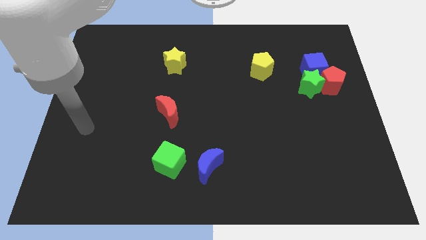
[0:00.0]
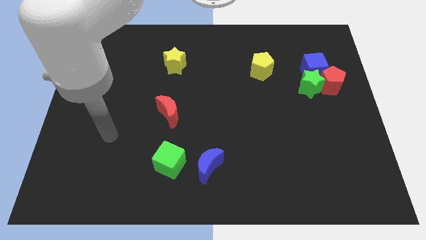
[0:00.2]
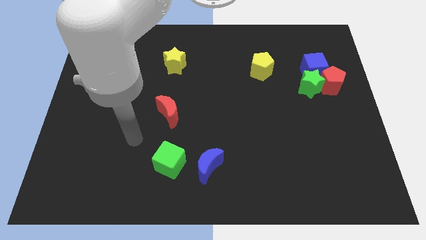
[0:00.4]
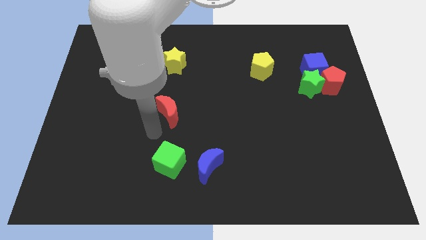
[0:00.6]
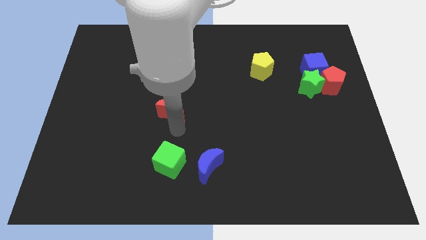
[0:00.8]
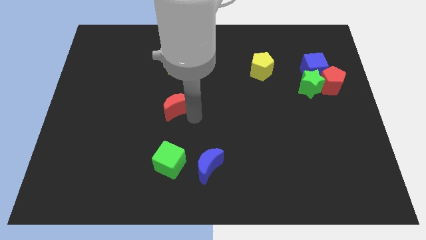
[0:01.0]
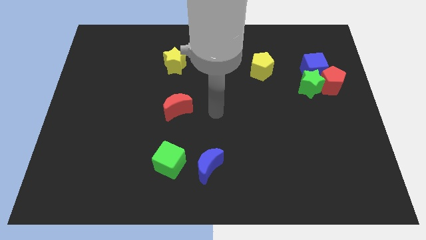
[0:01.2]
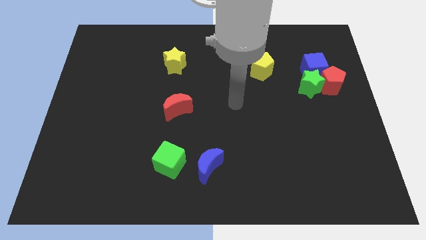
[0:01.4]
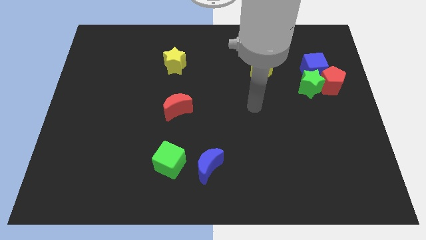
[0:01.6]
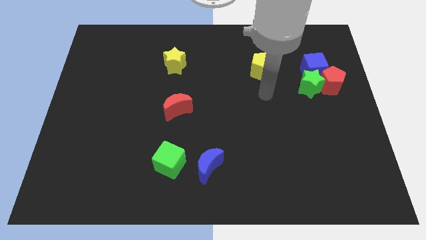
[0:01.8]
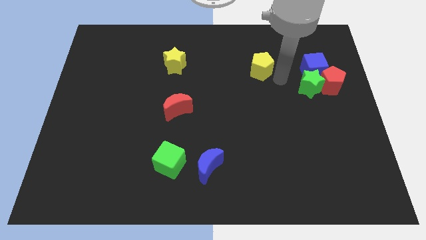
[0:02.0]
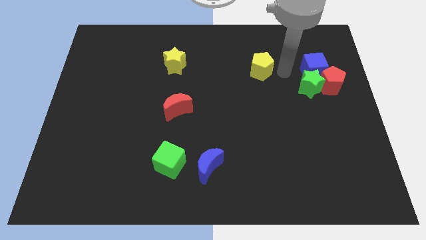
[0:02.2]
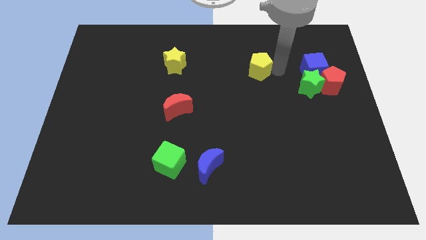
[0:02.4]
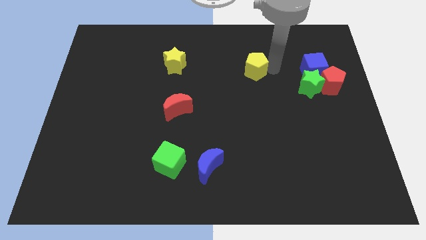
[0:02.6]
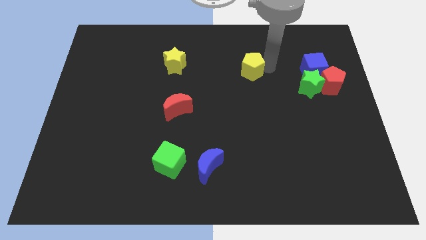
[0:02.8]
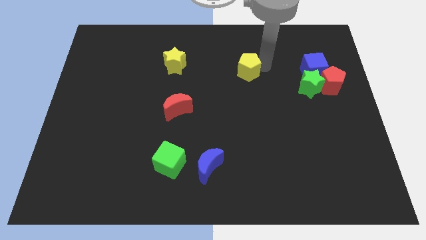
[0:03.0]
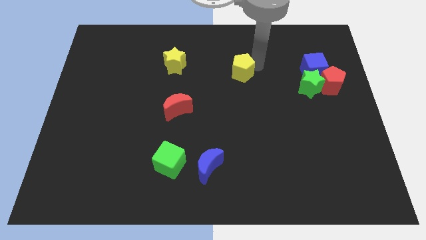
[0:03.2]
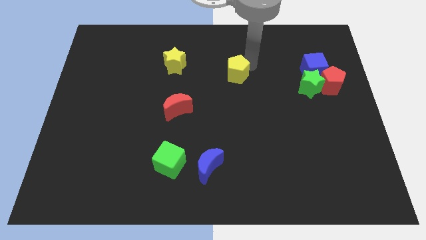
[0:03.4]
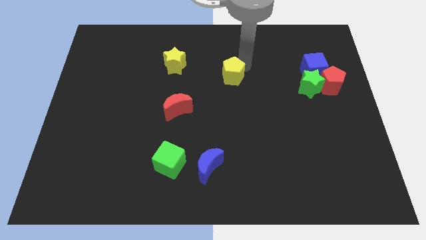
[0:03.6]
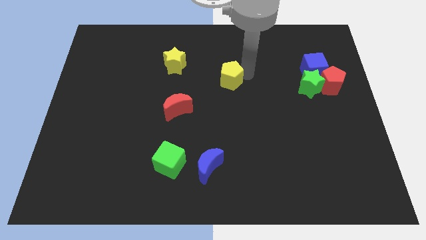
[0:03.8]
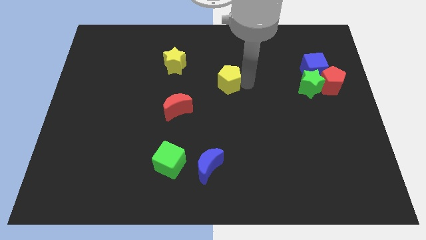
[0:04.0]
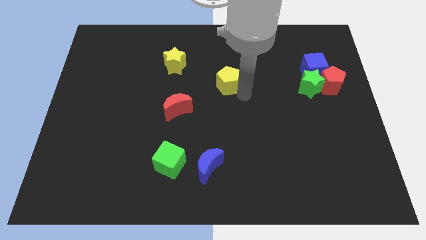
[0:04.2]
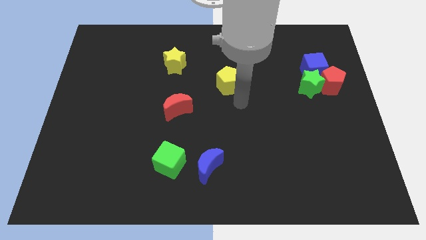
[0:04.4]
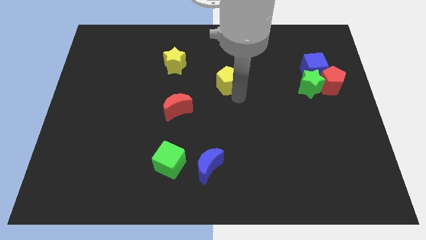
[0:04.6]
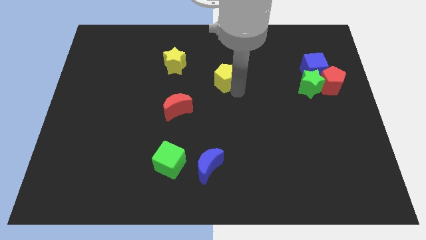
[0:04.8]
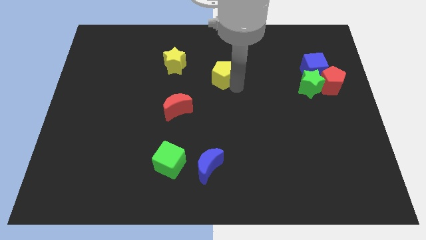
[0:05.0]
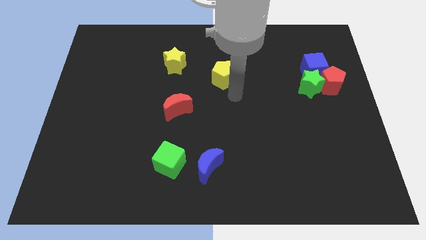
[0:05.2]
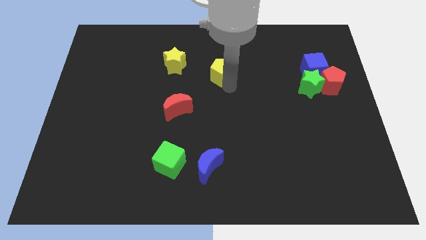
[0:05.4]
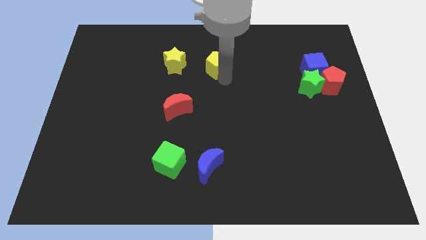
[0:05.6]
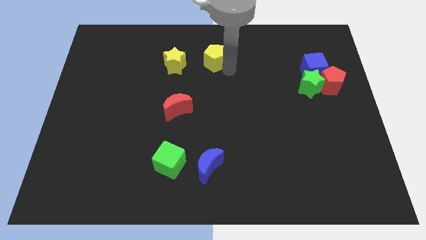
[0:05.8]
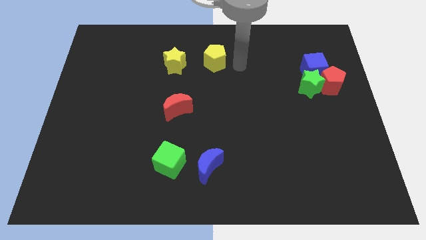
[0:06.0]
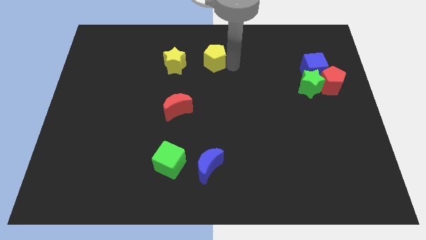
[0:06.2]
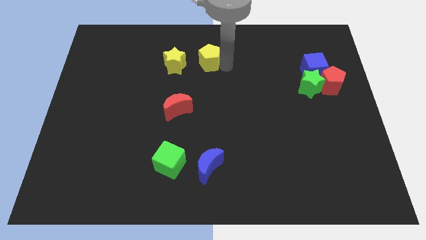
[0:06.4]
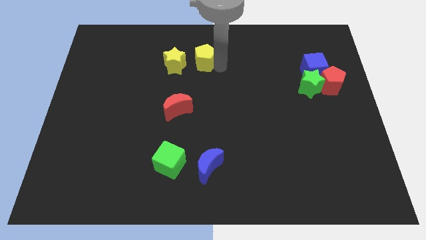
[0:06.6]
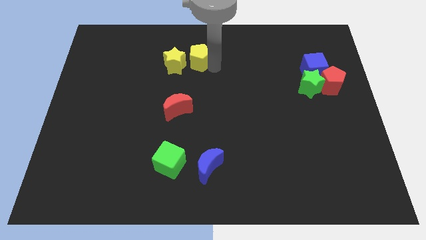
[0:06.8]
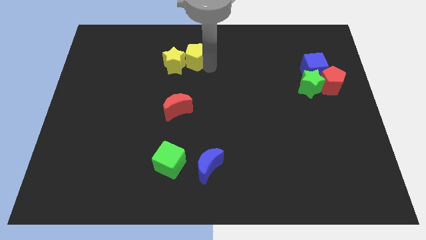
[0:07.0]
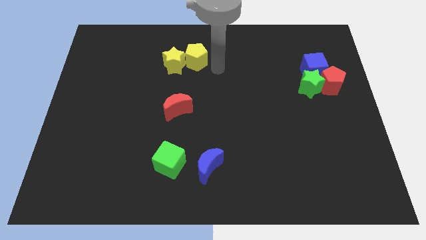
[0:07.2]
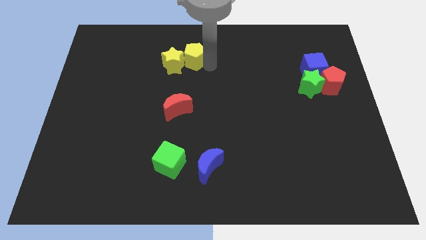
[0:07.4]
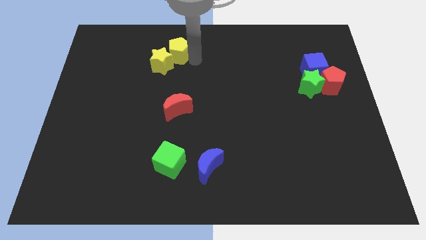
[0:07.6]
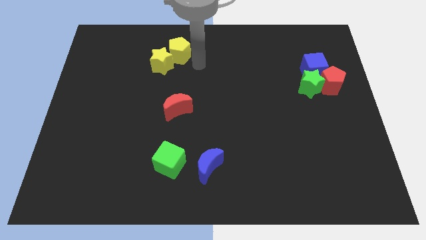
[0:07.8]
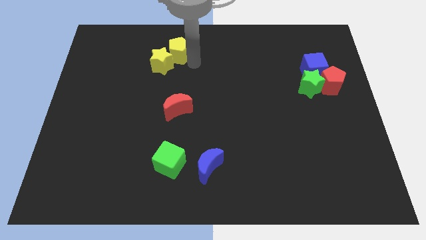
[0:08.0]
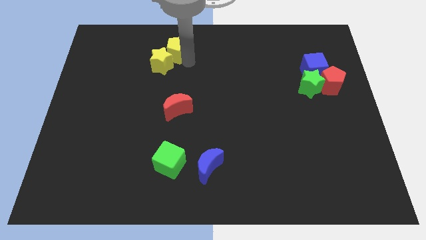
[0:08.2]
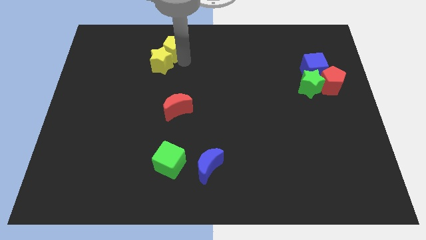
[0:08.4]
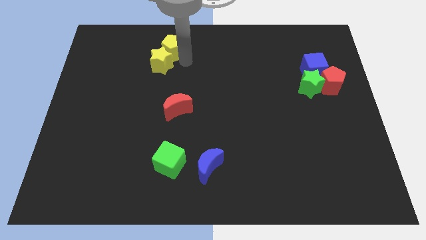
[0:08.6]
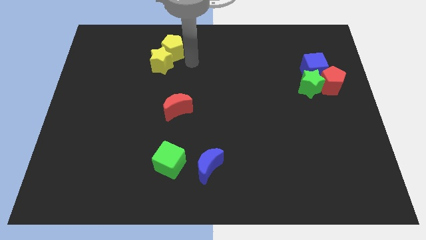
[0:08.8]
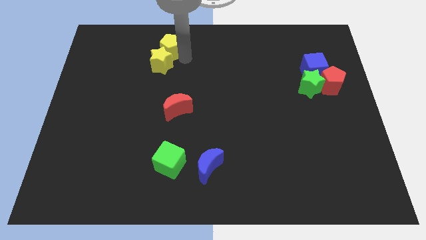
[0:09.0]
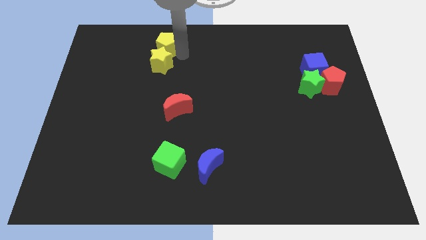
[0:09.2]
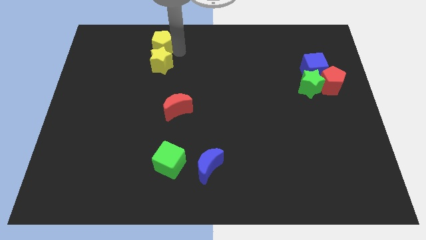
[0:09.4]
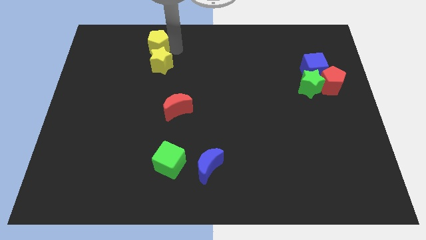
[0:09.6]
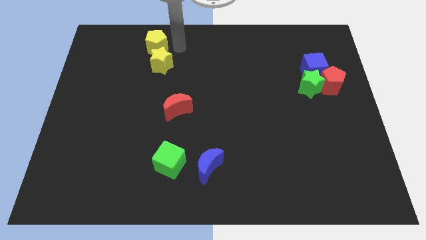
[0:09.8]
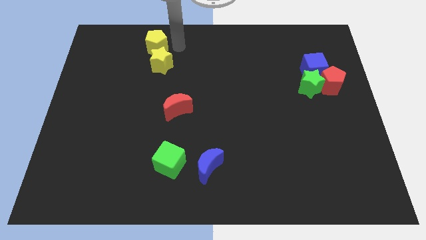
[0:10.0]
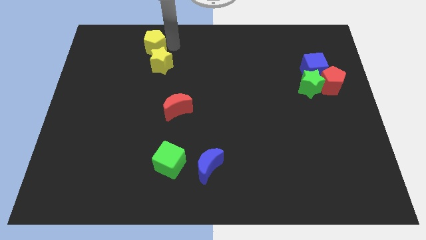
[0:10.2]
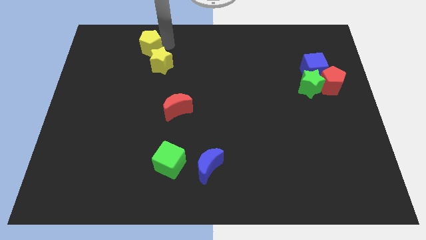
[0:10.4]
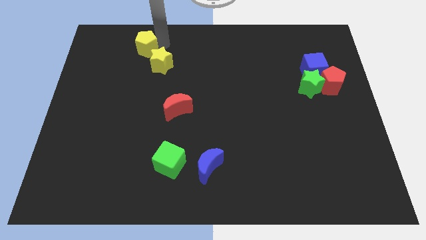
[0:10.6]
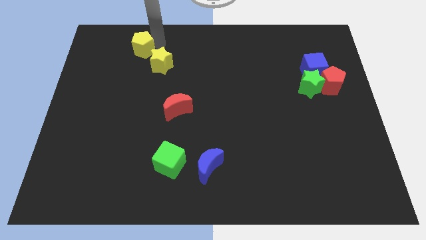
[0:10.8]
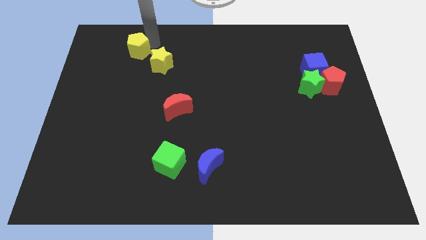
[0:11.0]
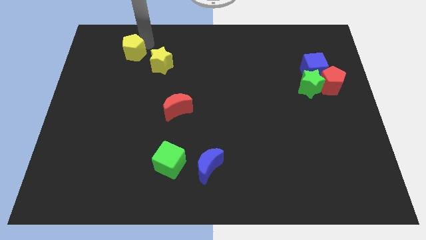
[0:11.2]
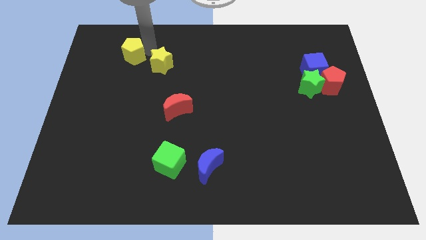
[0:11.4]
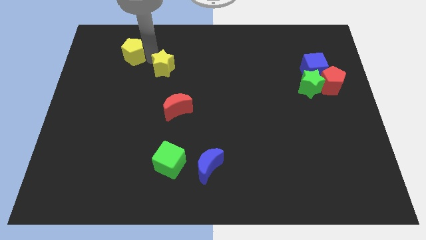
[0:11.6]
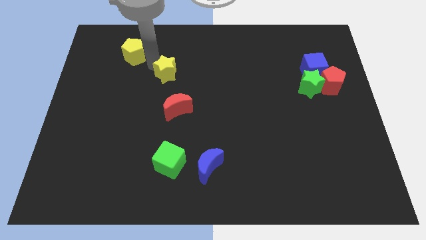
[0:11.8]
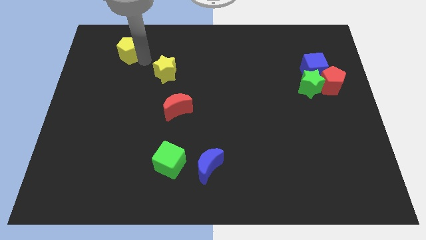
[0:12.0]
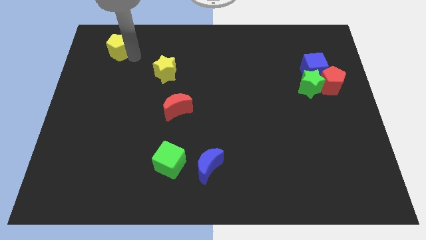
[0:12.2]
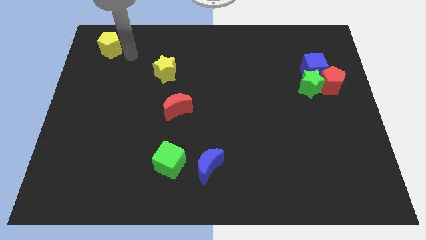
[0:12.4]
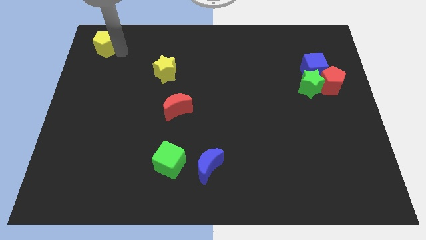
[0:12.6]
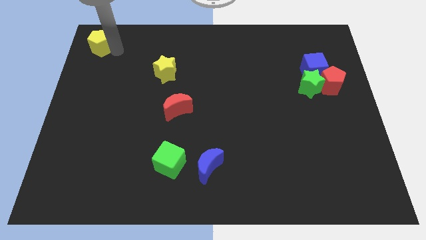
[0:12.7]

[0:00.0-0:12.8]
slide the yellow pentagon to the upper left corner

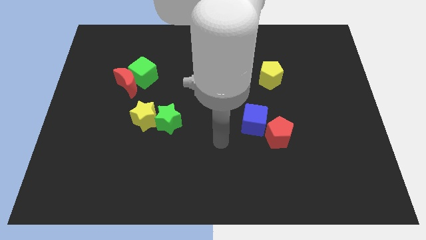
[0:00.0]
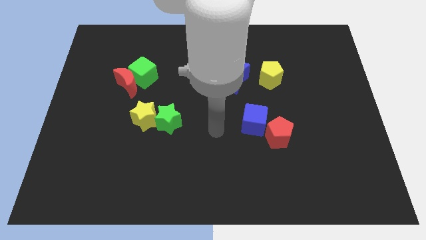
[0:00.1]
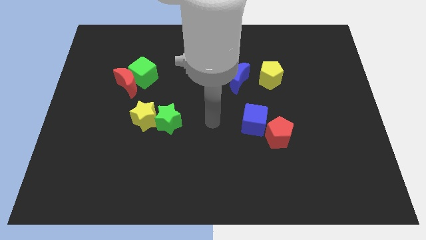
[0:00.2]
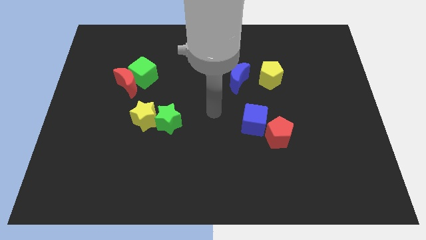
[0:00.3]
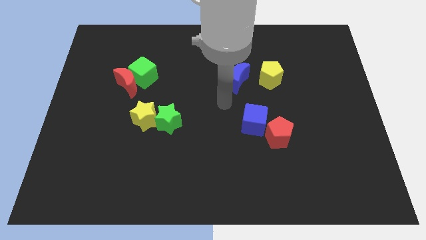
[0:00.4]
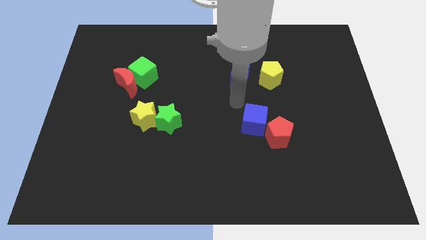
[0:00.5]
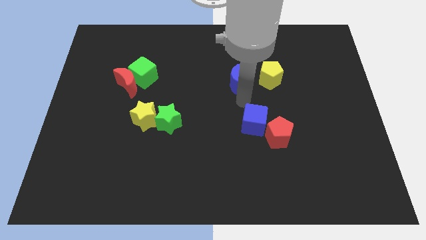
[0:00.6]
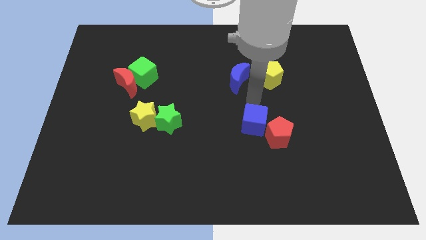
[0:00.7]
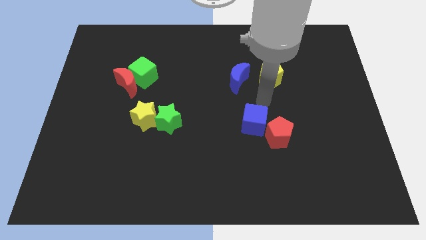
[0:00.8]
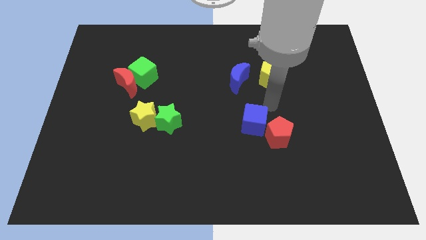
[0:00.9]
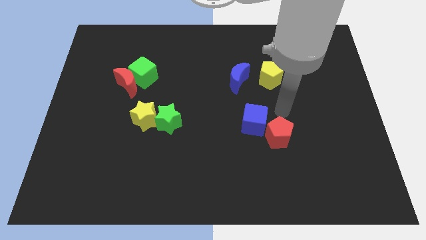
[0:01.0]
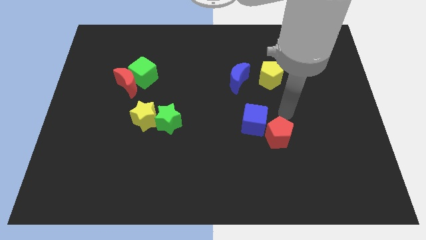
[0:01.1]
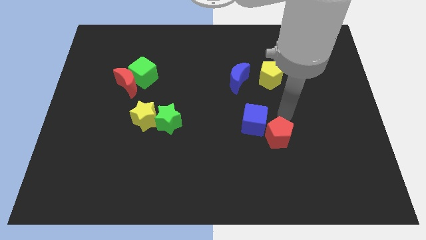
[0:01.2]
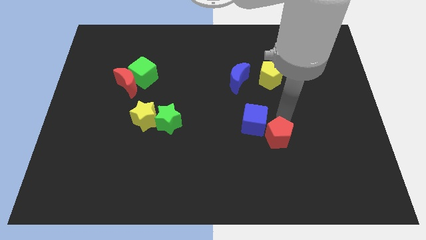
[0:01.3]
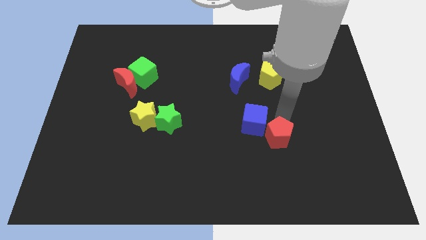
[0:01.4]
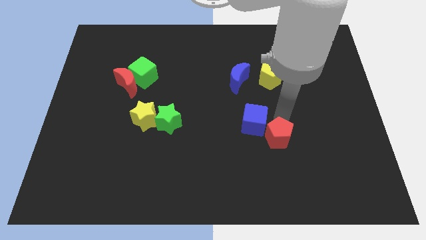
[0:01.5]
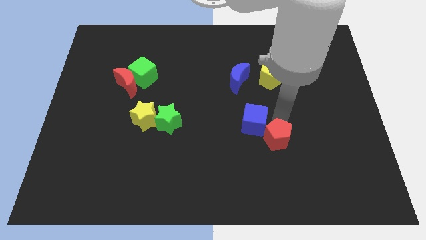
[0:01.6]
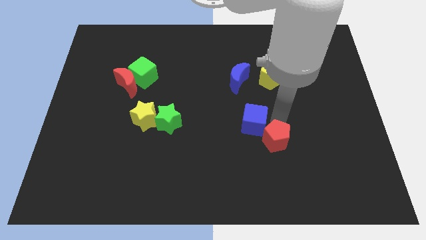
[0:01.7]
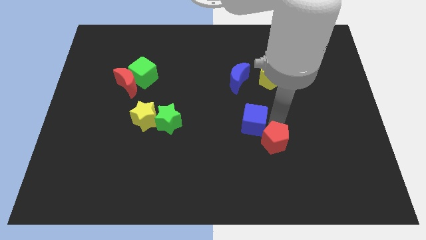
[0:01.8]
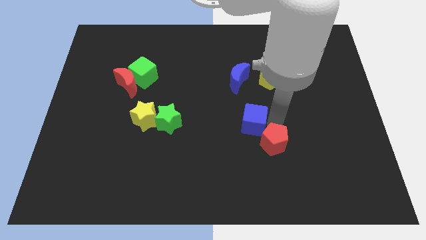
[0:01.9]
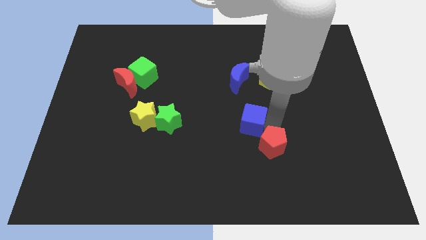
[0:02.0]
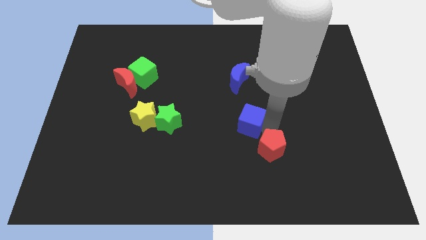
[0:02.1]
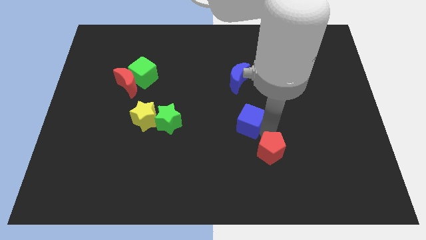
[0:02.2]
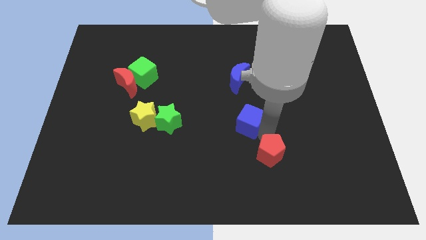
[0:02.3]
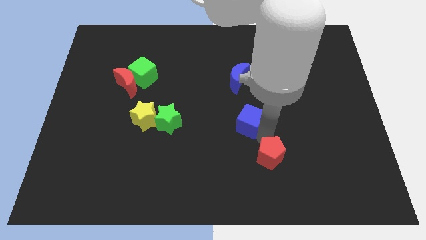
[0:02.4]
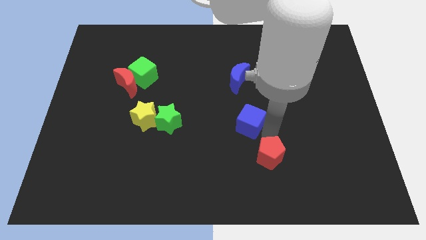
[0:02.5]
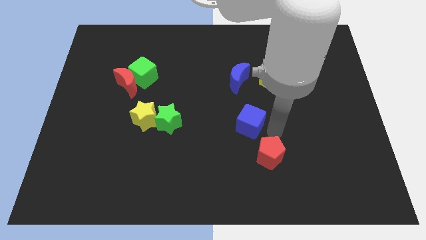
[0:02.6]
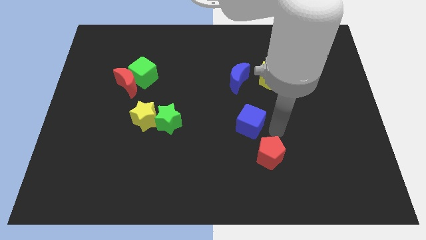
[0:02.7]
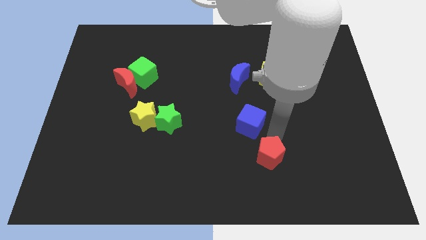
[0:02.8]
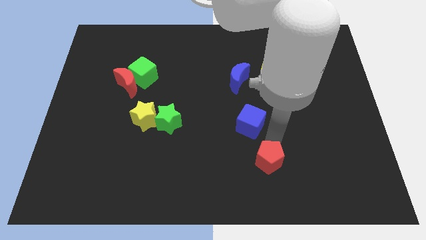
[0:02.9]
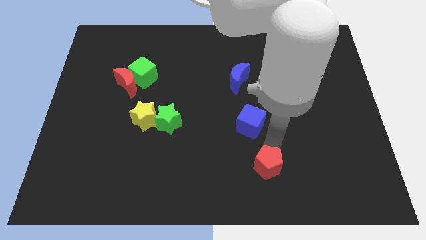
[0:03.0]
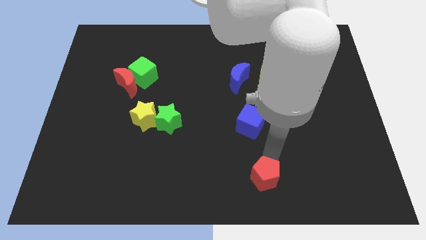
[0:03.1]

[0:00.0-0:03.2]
move the red pentagon to the bottom
